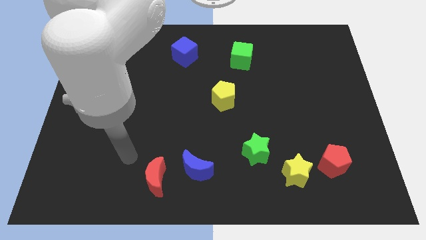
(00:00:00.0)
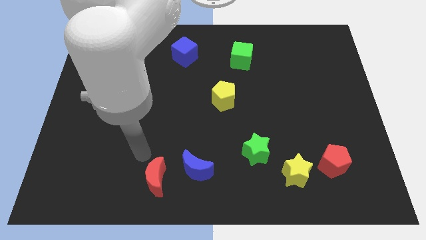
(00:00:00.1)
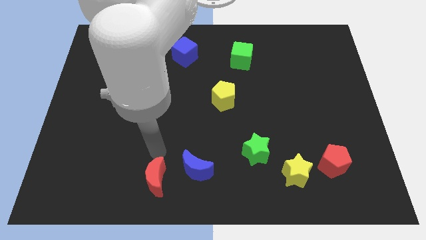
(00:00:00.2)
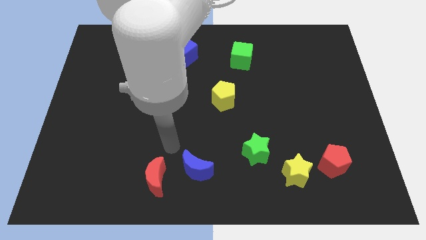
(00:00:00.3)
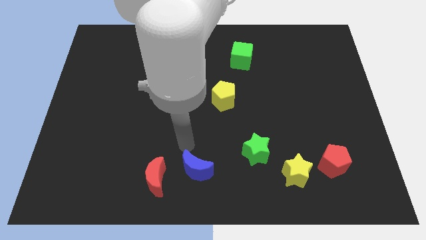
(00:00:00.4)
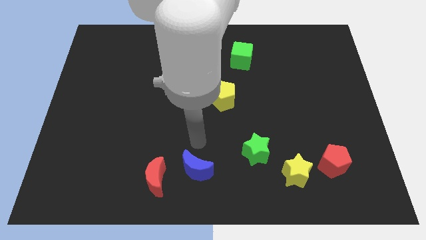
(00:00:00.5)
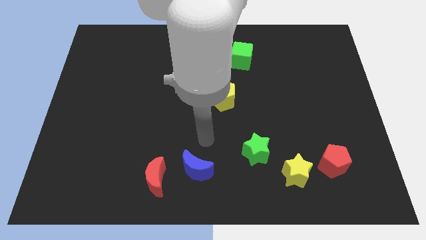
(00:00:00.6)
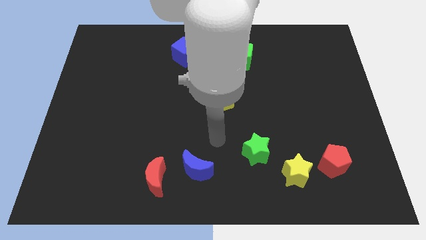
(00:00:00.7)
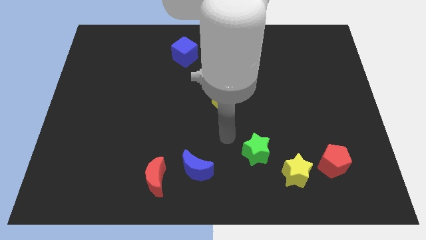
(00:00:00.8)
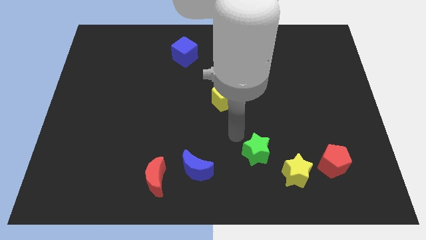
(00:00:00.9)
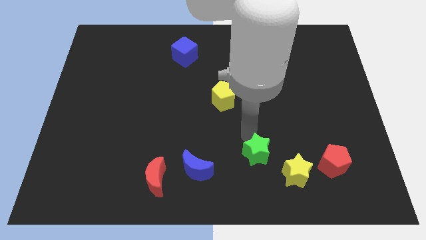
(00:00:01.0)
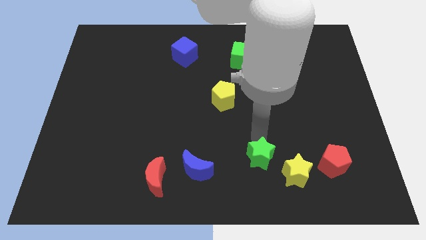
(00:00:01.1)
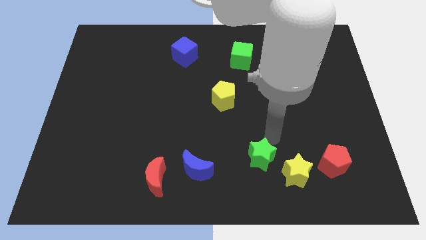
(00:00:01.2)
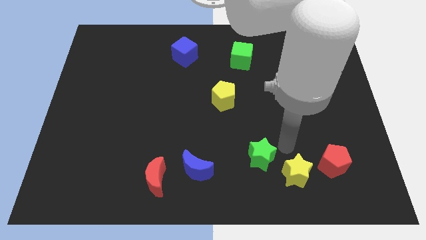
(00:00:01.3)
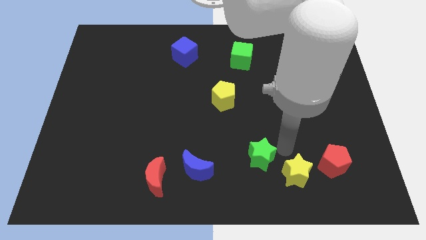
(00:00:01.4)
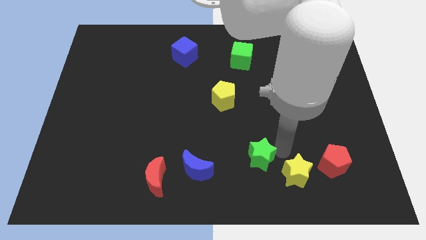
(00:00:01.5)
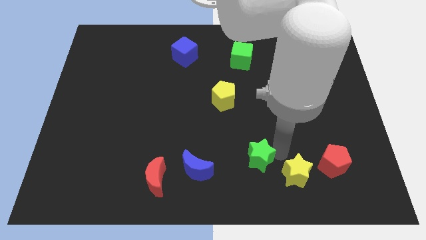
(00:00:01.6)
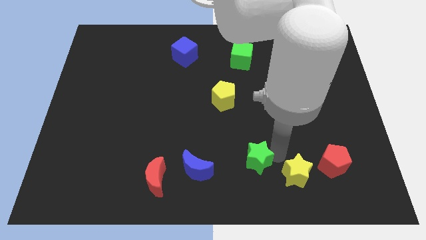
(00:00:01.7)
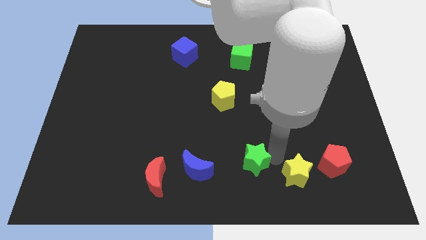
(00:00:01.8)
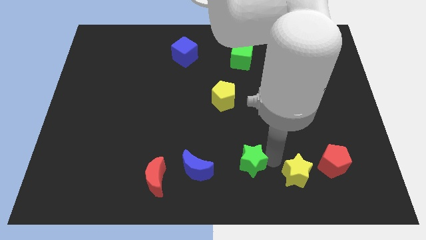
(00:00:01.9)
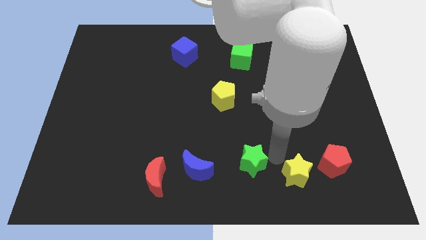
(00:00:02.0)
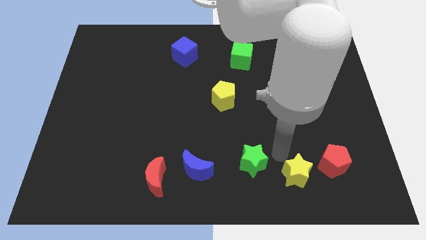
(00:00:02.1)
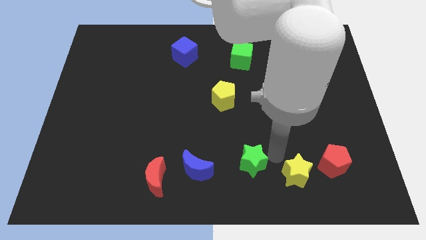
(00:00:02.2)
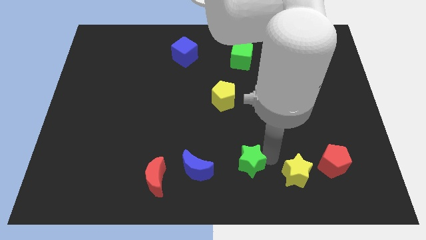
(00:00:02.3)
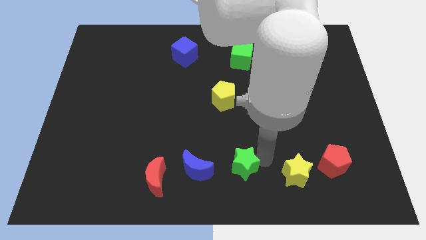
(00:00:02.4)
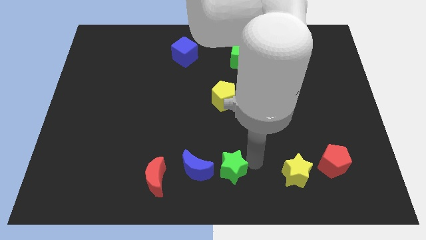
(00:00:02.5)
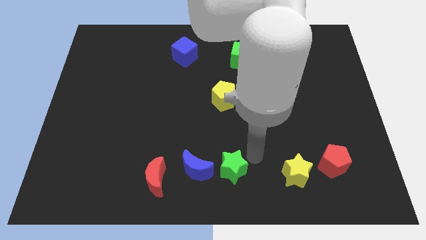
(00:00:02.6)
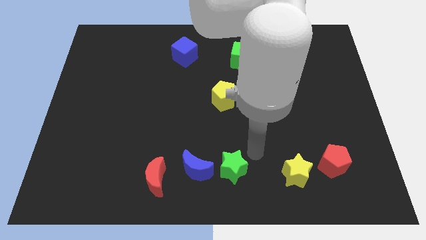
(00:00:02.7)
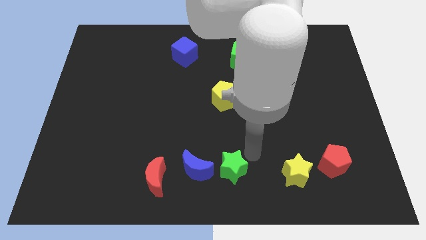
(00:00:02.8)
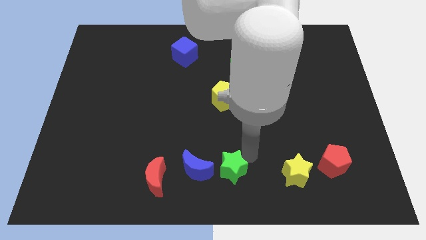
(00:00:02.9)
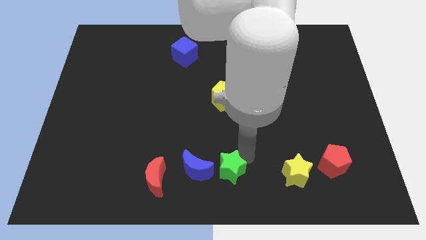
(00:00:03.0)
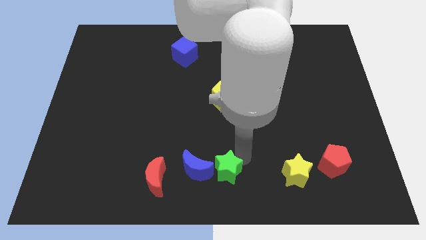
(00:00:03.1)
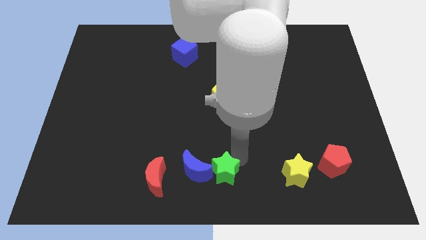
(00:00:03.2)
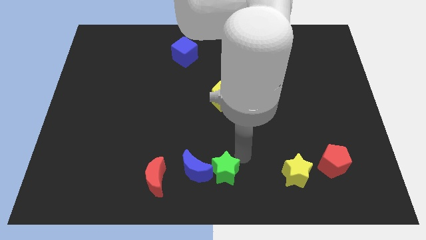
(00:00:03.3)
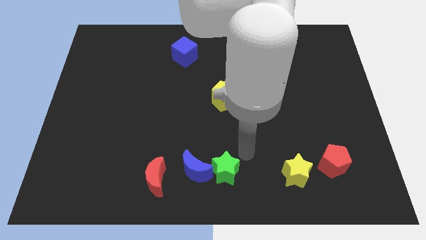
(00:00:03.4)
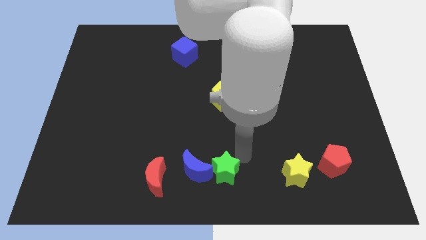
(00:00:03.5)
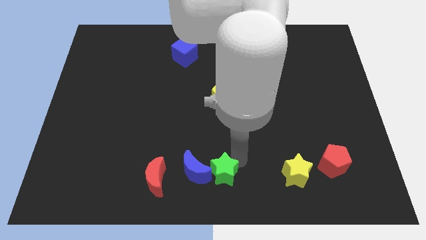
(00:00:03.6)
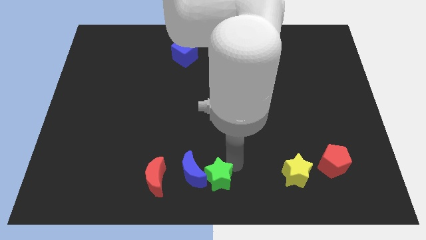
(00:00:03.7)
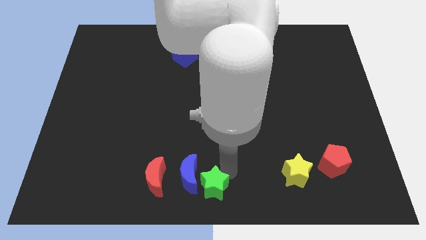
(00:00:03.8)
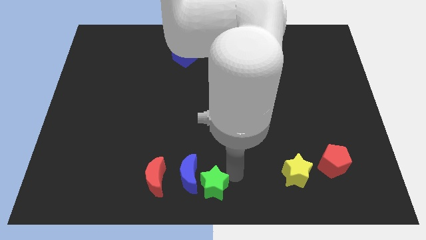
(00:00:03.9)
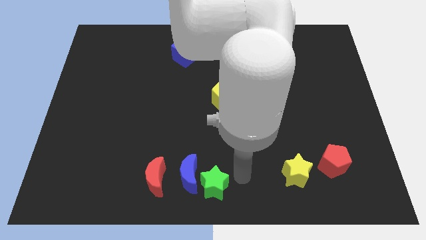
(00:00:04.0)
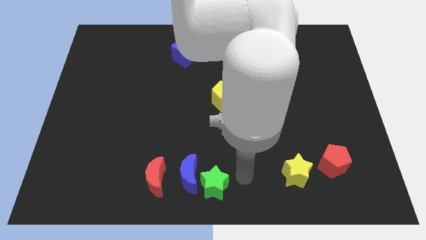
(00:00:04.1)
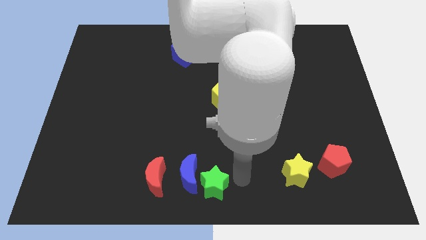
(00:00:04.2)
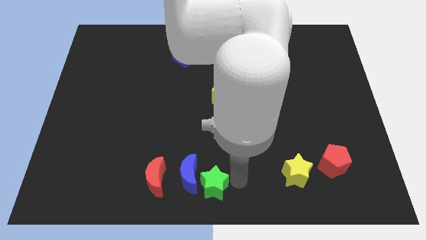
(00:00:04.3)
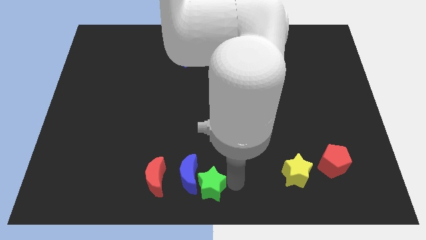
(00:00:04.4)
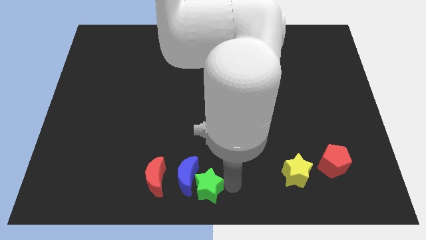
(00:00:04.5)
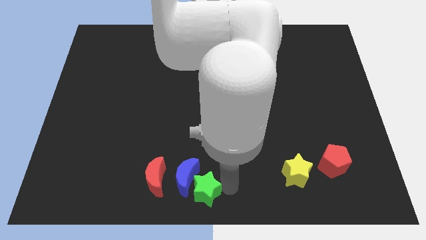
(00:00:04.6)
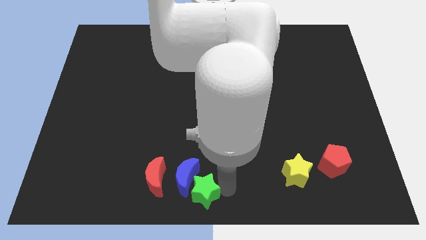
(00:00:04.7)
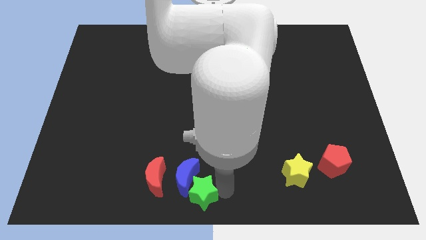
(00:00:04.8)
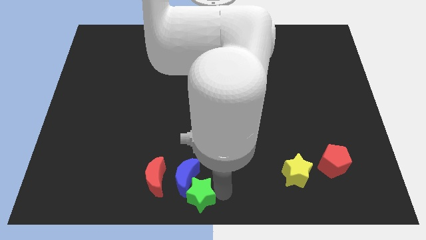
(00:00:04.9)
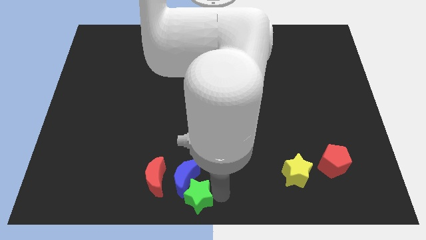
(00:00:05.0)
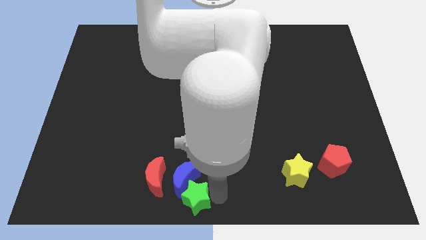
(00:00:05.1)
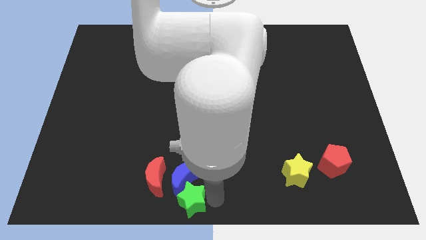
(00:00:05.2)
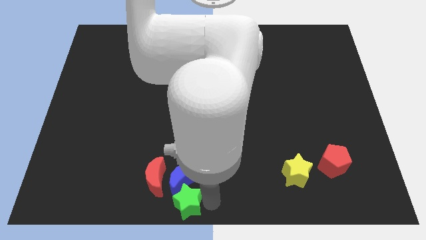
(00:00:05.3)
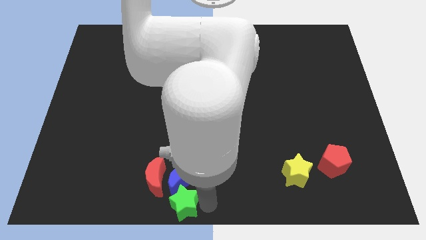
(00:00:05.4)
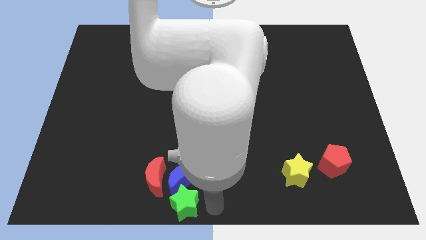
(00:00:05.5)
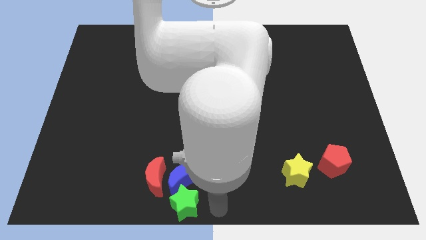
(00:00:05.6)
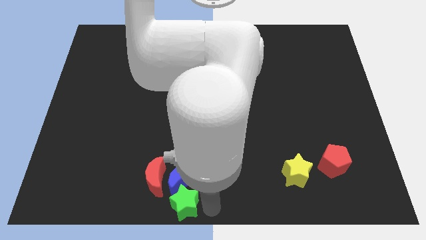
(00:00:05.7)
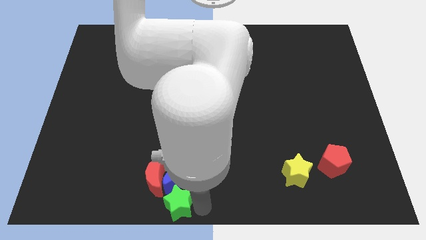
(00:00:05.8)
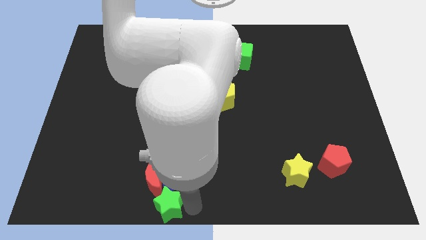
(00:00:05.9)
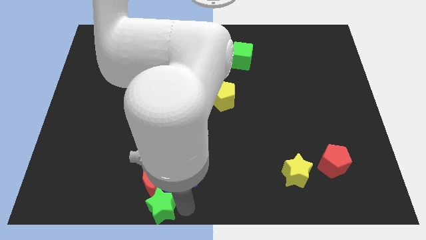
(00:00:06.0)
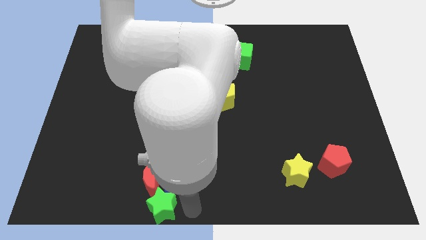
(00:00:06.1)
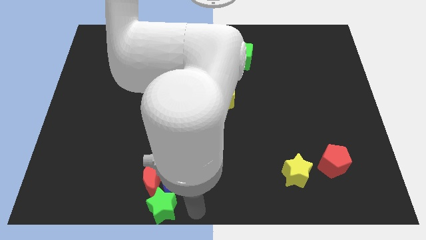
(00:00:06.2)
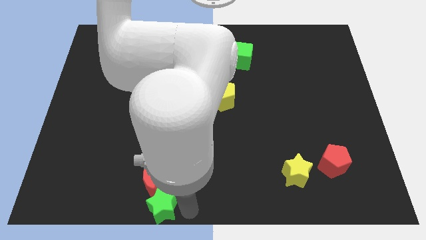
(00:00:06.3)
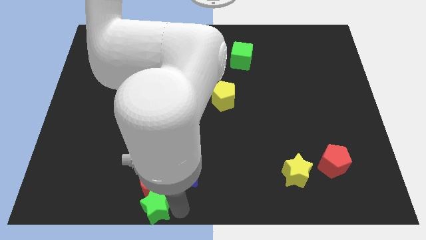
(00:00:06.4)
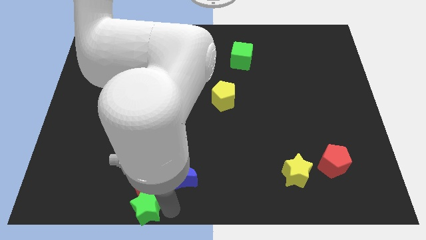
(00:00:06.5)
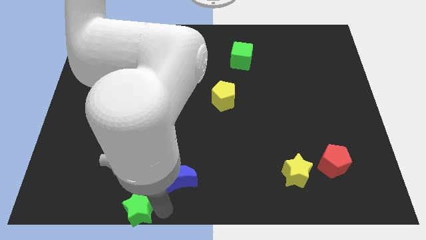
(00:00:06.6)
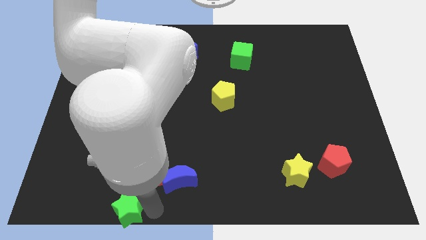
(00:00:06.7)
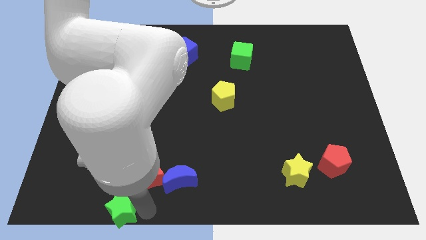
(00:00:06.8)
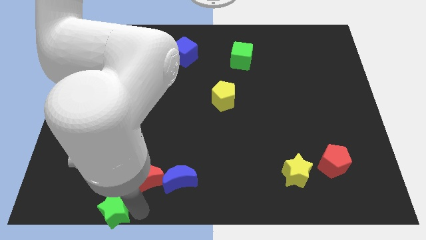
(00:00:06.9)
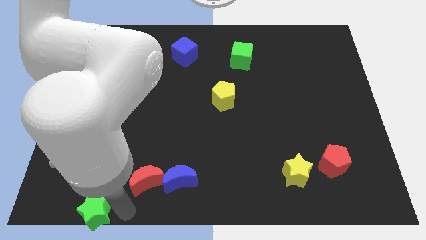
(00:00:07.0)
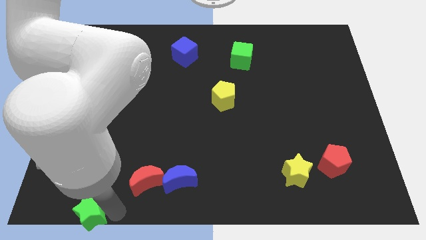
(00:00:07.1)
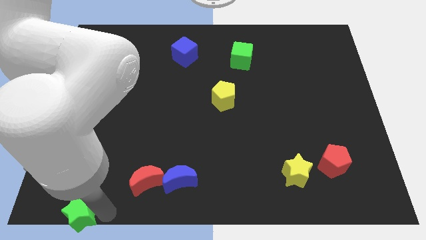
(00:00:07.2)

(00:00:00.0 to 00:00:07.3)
slide the green star to the bottom left corner
